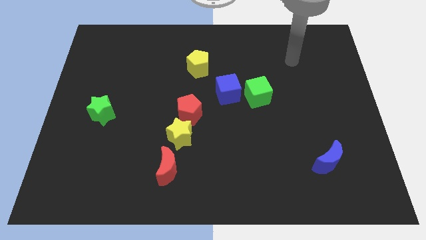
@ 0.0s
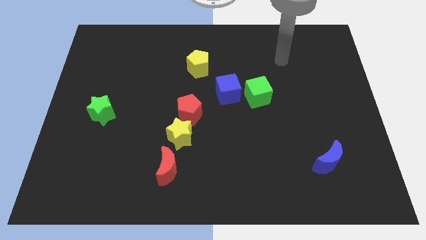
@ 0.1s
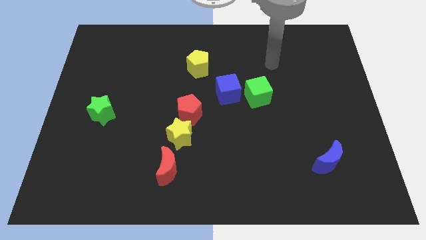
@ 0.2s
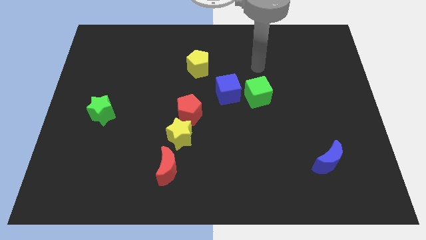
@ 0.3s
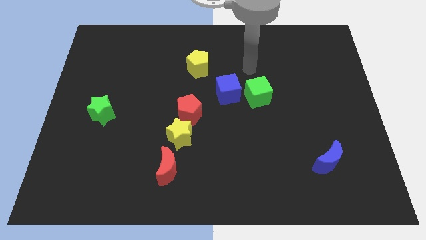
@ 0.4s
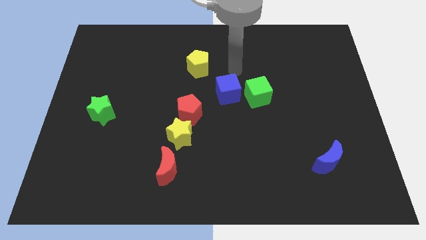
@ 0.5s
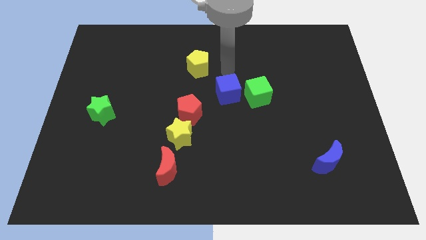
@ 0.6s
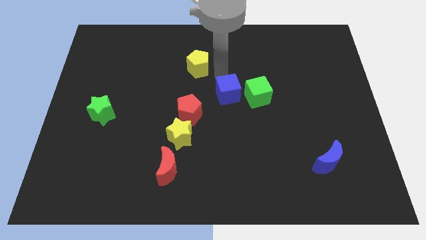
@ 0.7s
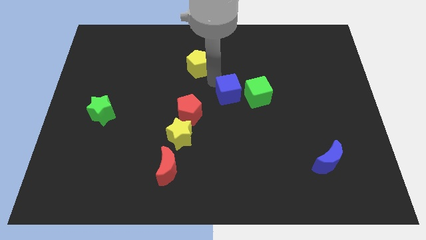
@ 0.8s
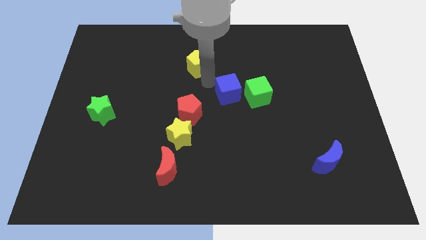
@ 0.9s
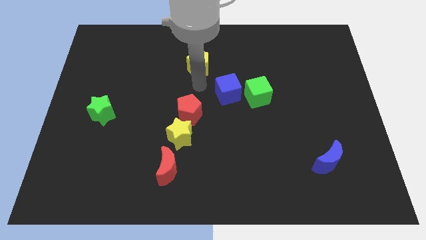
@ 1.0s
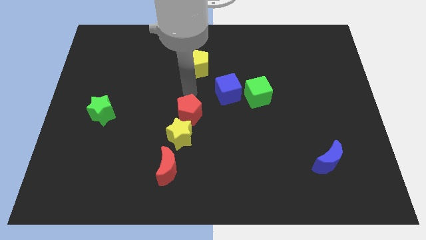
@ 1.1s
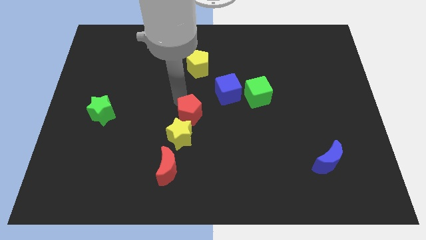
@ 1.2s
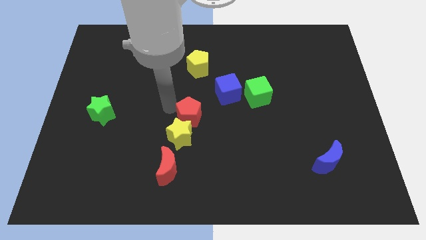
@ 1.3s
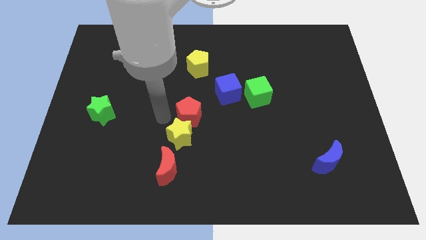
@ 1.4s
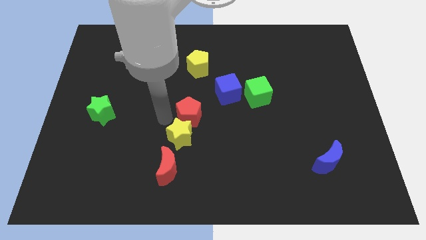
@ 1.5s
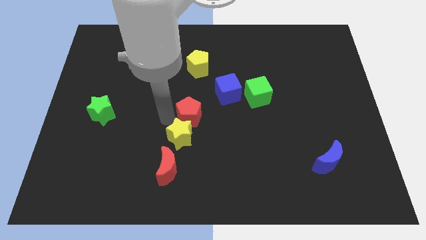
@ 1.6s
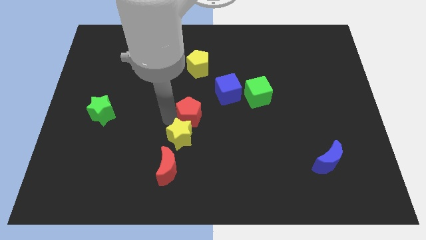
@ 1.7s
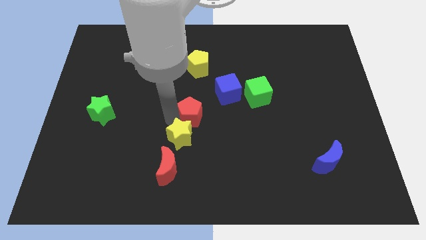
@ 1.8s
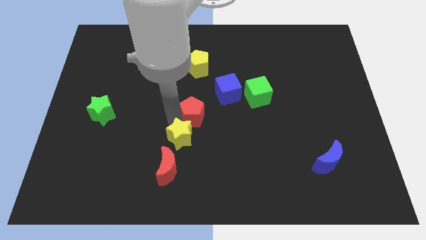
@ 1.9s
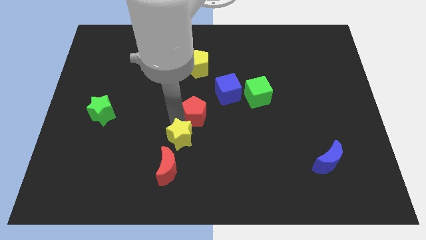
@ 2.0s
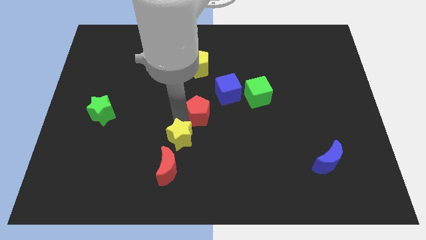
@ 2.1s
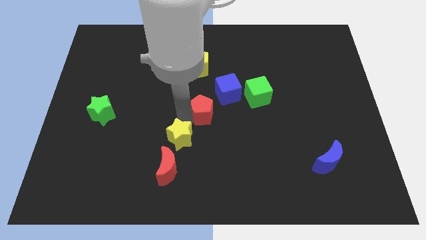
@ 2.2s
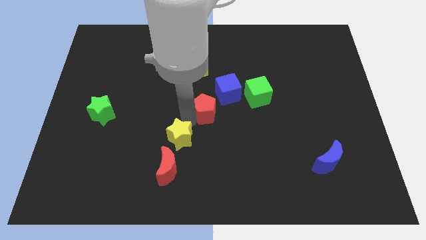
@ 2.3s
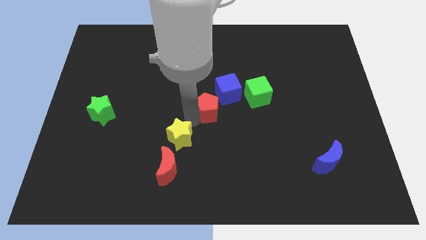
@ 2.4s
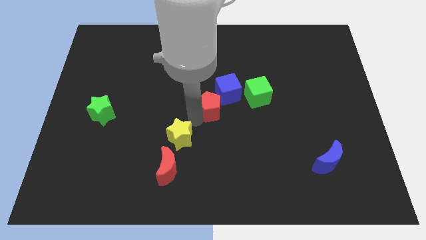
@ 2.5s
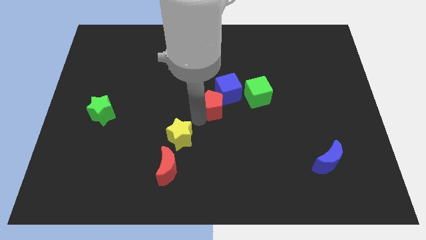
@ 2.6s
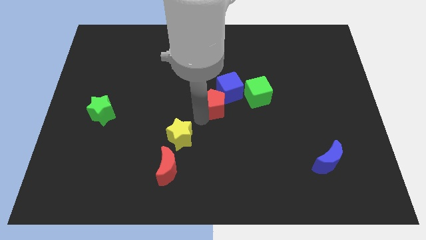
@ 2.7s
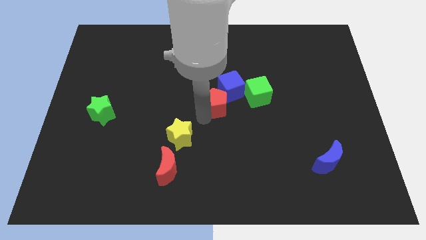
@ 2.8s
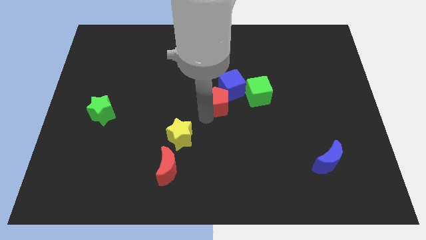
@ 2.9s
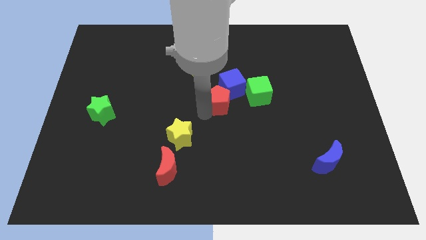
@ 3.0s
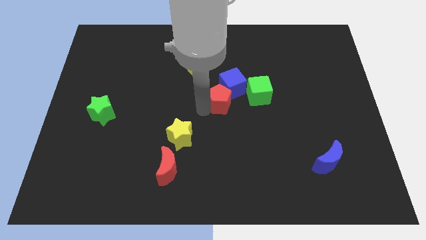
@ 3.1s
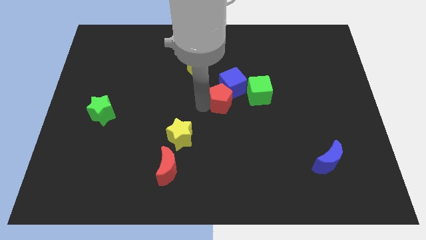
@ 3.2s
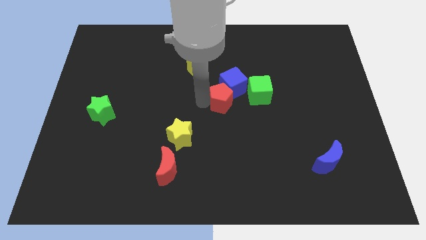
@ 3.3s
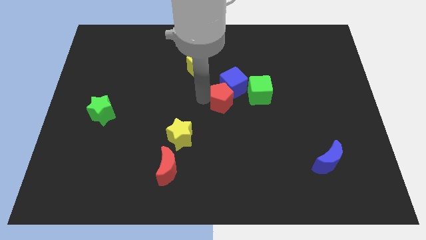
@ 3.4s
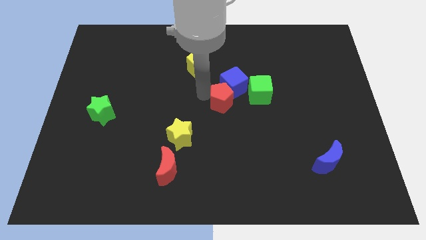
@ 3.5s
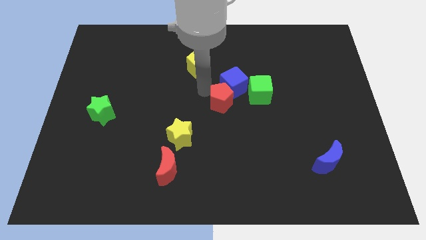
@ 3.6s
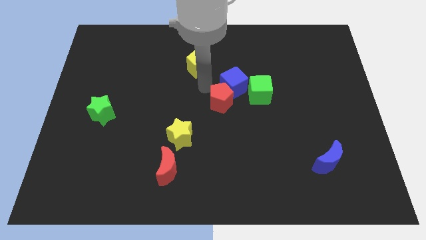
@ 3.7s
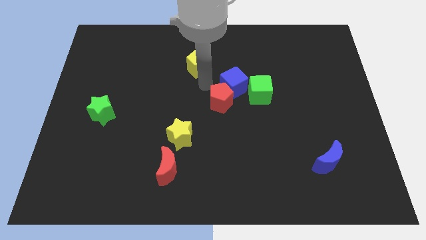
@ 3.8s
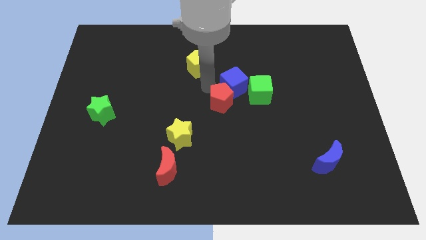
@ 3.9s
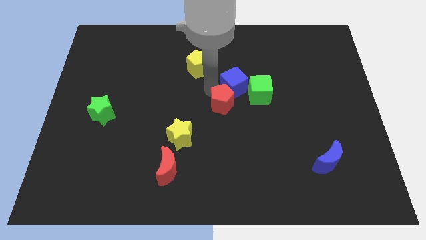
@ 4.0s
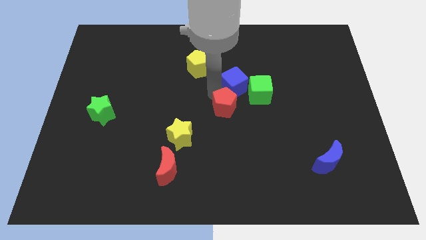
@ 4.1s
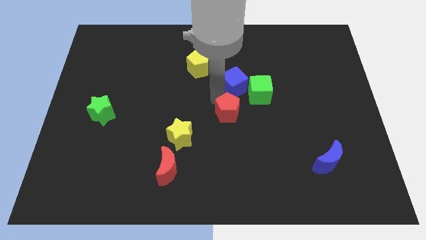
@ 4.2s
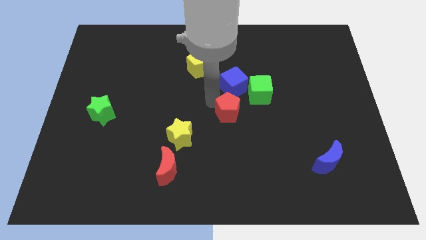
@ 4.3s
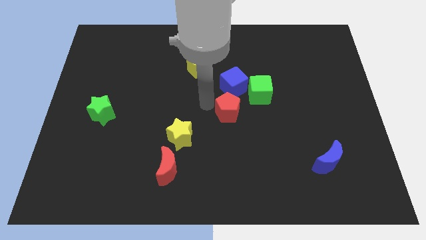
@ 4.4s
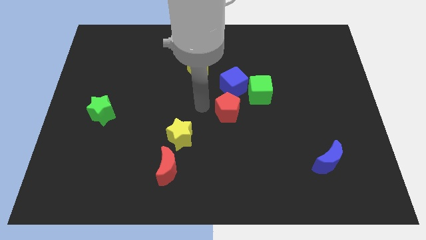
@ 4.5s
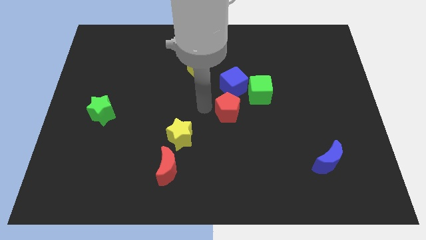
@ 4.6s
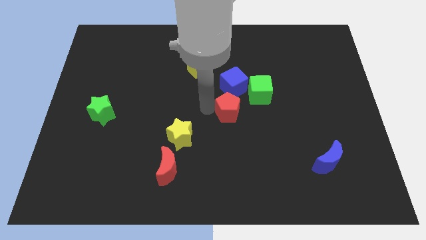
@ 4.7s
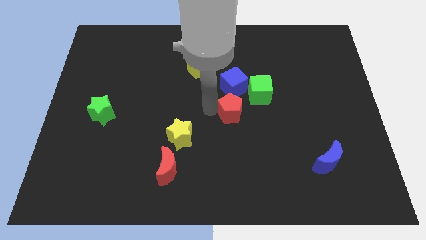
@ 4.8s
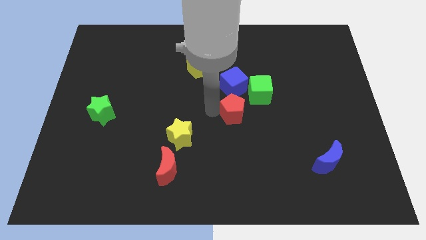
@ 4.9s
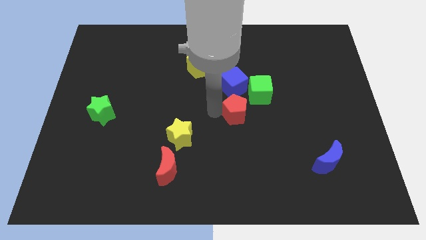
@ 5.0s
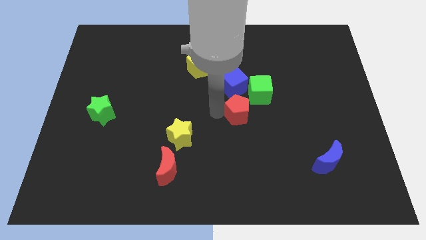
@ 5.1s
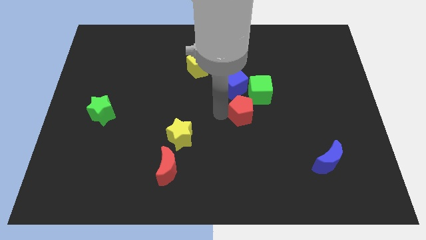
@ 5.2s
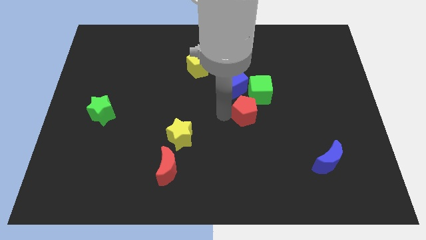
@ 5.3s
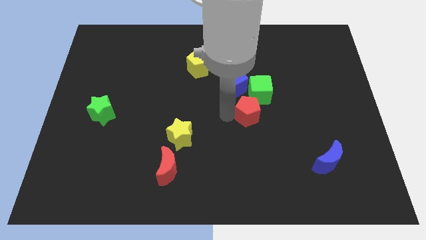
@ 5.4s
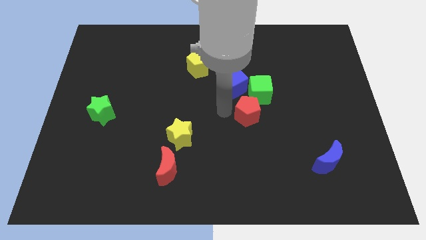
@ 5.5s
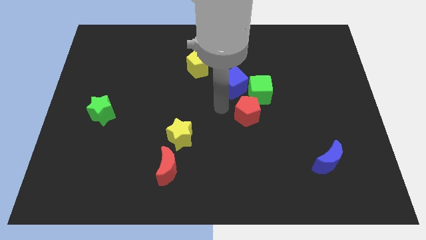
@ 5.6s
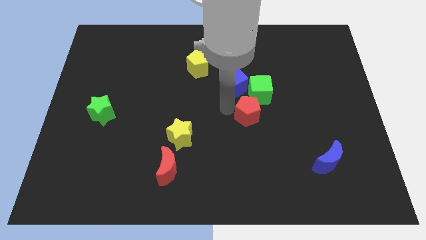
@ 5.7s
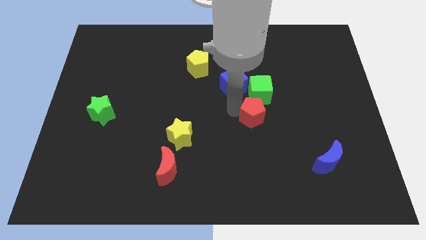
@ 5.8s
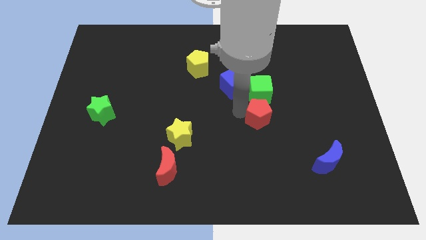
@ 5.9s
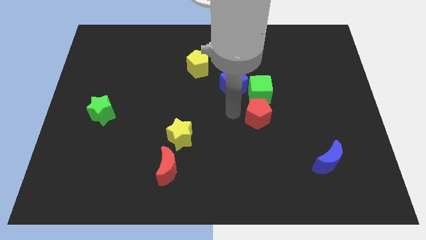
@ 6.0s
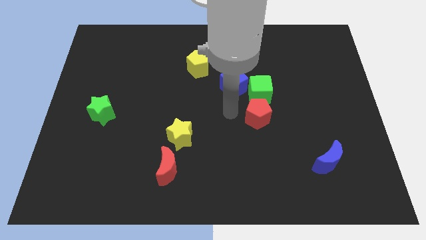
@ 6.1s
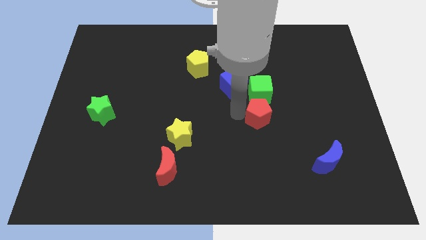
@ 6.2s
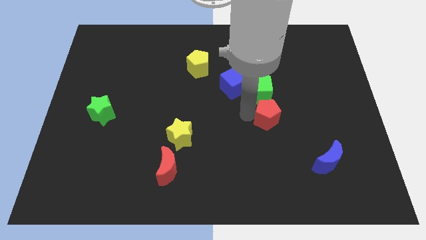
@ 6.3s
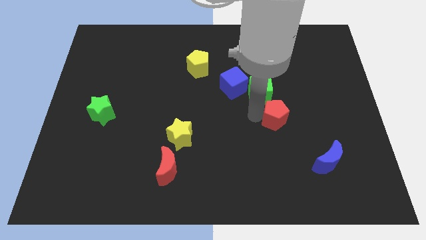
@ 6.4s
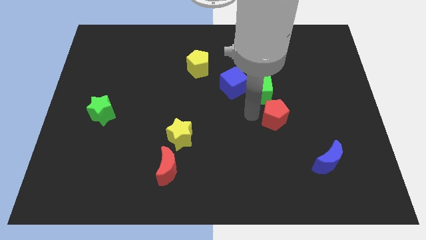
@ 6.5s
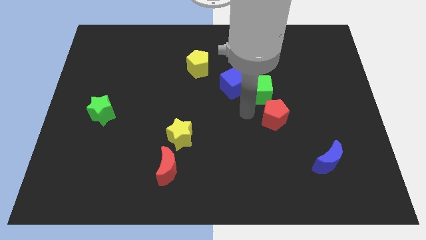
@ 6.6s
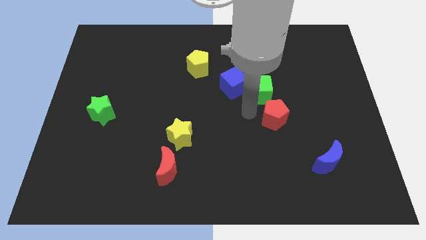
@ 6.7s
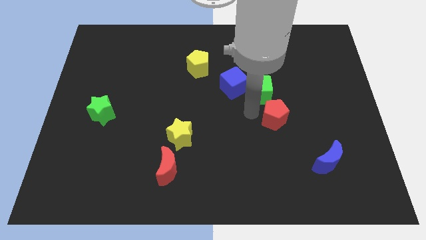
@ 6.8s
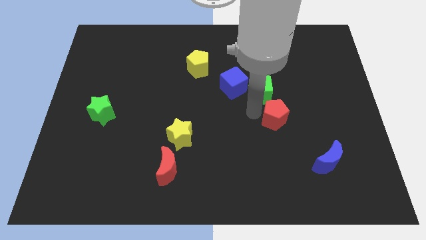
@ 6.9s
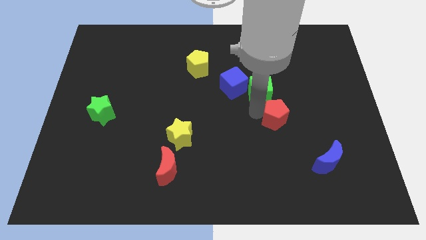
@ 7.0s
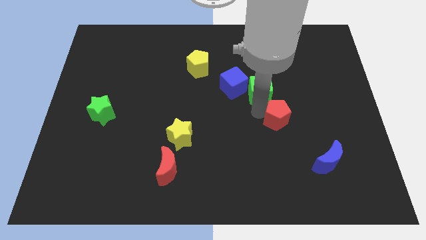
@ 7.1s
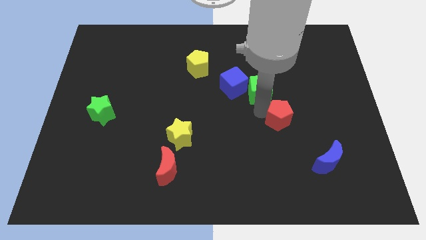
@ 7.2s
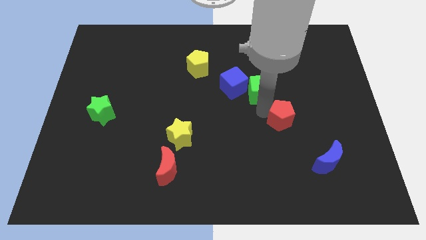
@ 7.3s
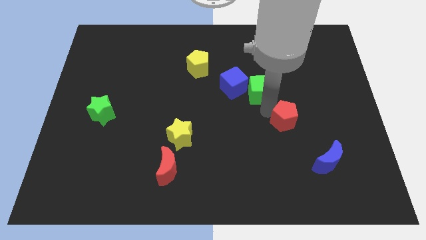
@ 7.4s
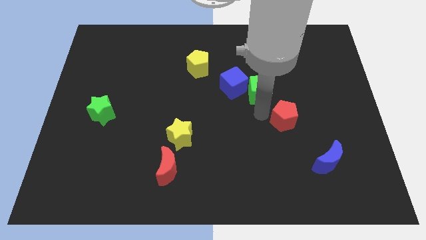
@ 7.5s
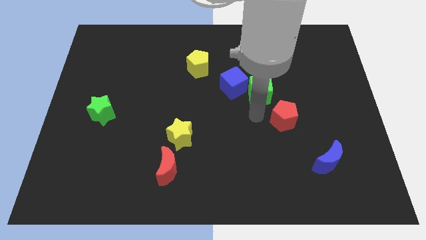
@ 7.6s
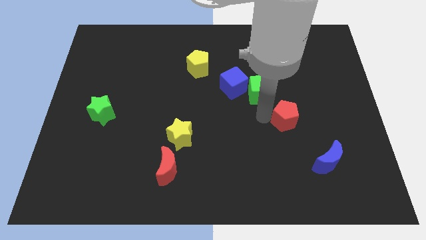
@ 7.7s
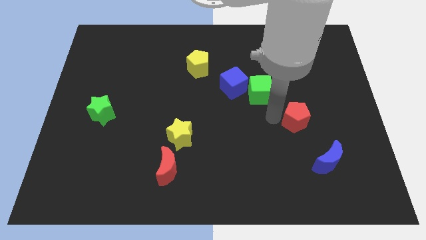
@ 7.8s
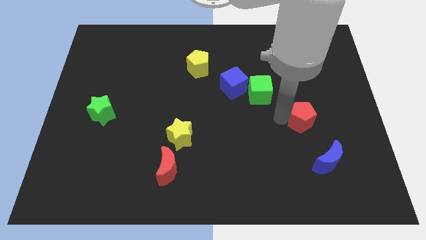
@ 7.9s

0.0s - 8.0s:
move the red pentagon to the top of the blue moon
